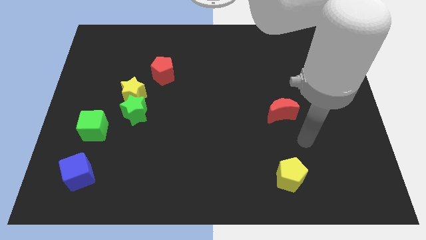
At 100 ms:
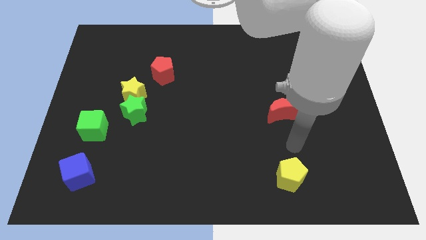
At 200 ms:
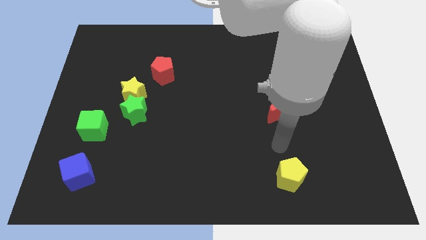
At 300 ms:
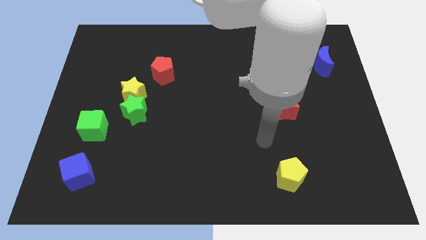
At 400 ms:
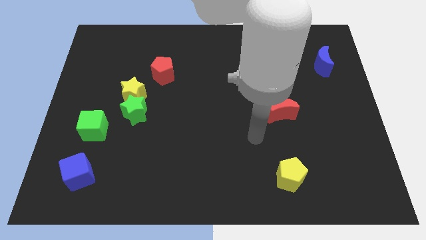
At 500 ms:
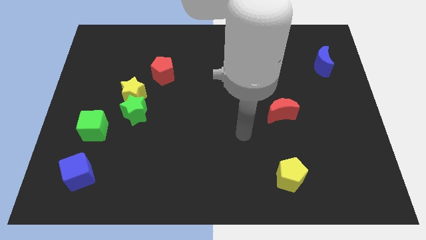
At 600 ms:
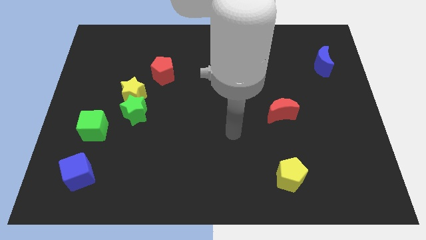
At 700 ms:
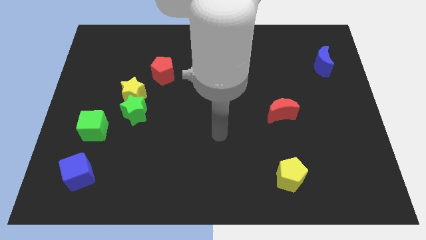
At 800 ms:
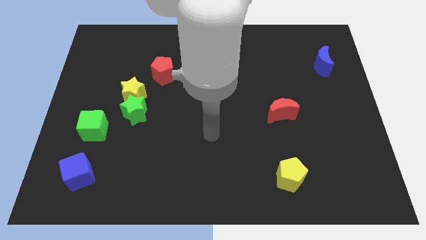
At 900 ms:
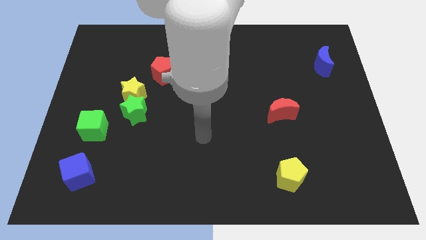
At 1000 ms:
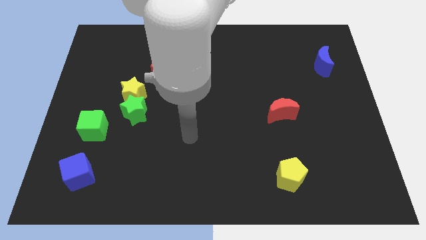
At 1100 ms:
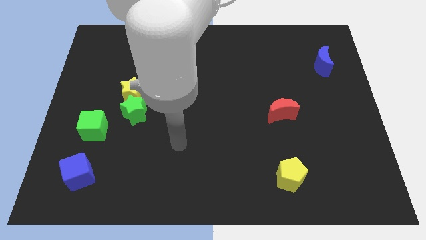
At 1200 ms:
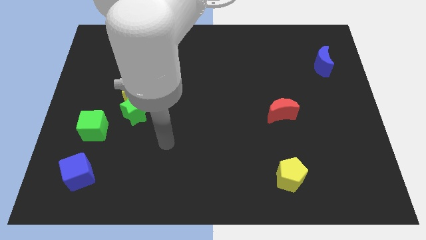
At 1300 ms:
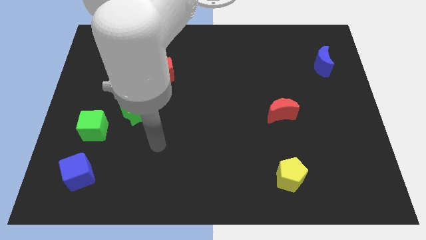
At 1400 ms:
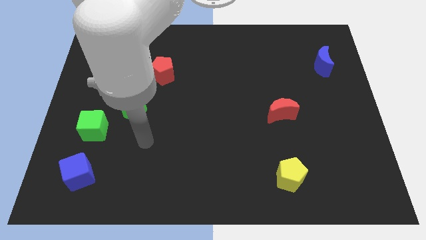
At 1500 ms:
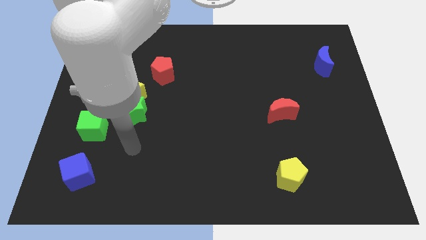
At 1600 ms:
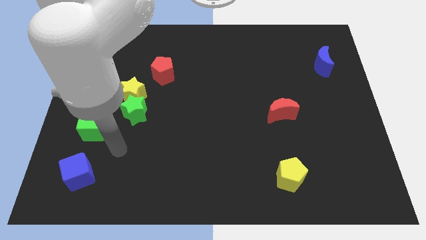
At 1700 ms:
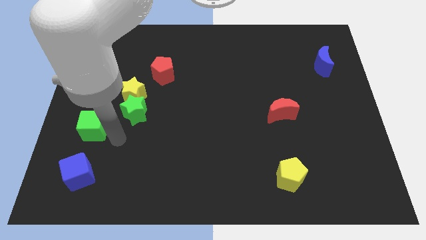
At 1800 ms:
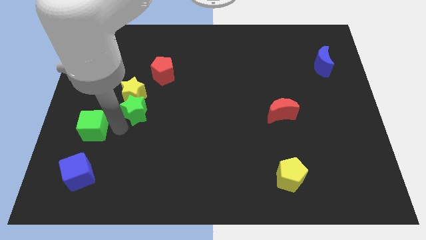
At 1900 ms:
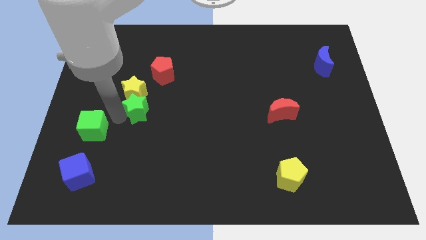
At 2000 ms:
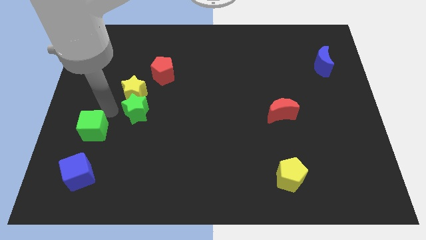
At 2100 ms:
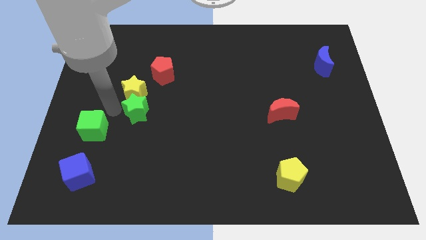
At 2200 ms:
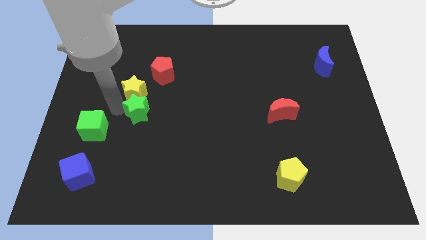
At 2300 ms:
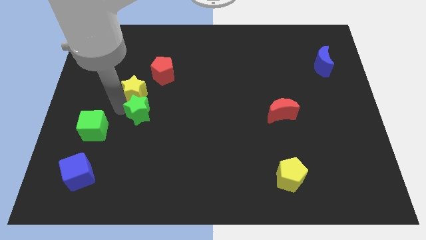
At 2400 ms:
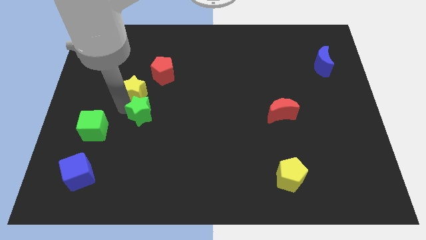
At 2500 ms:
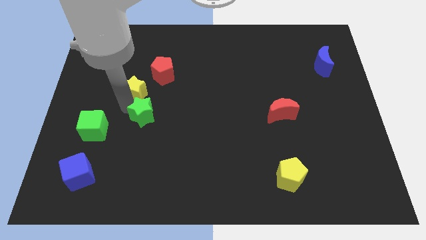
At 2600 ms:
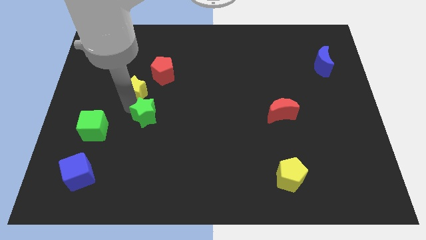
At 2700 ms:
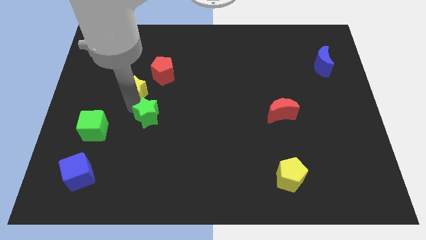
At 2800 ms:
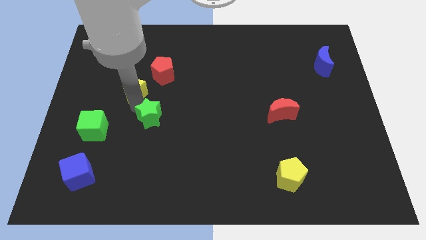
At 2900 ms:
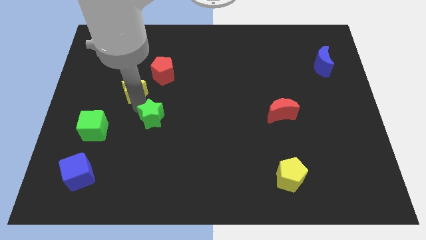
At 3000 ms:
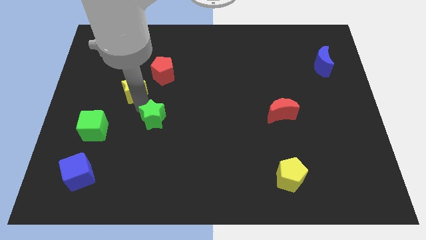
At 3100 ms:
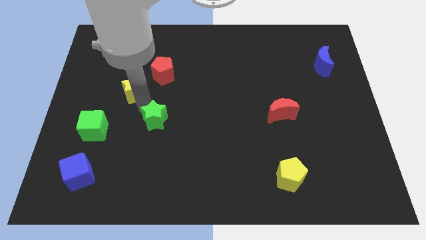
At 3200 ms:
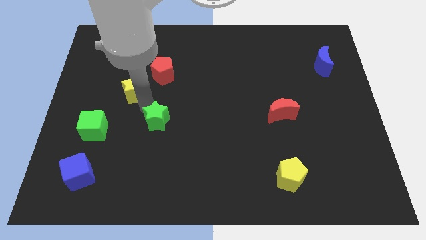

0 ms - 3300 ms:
move the green star away from the yellow star and green cube

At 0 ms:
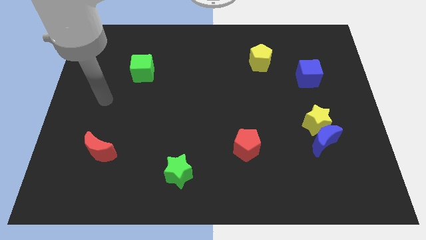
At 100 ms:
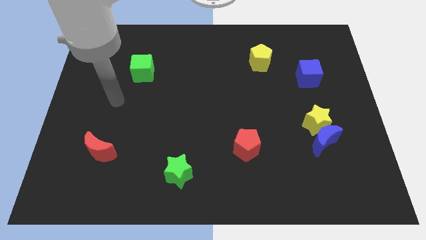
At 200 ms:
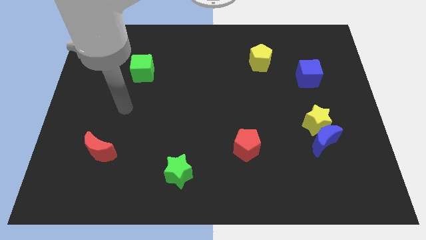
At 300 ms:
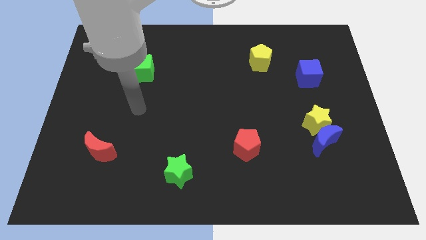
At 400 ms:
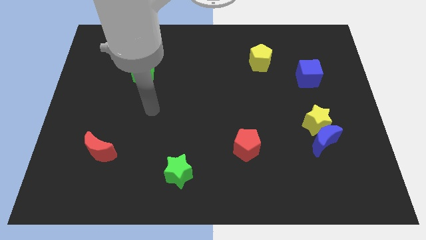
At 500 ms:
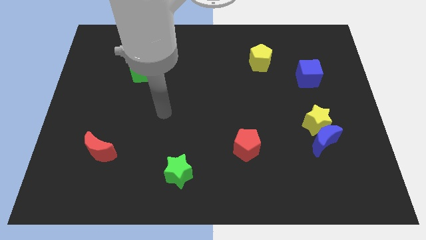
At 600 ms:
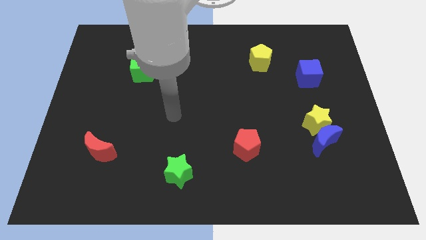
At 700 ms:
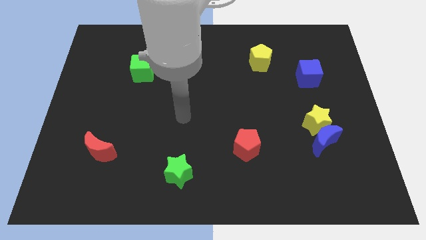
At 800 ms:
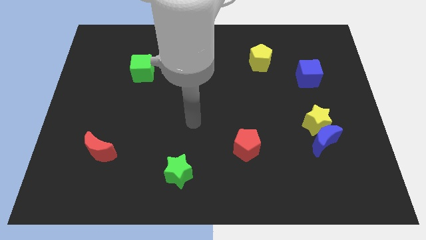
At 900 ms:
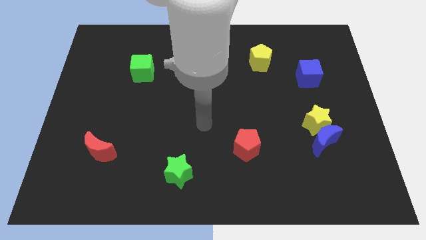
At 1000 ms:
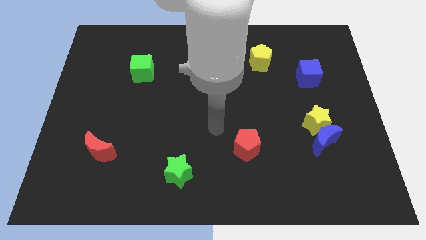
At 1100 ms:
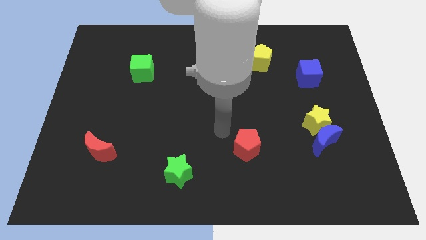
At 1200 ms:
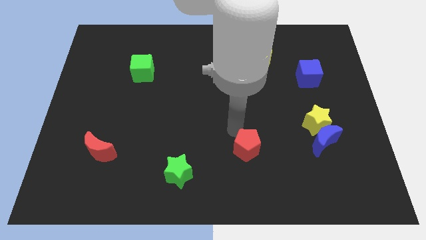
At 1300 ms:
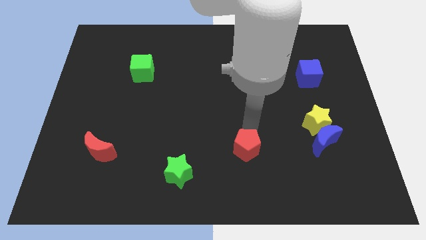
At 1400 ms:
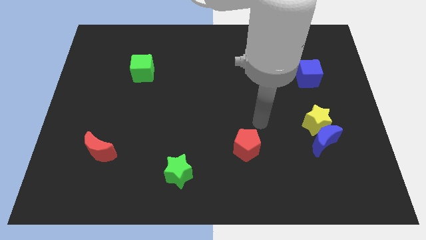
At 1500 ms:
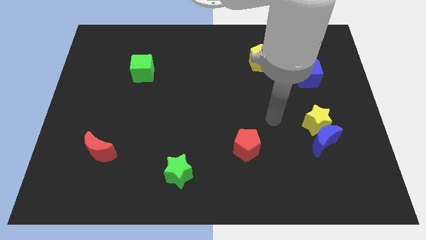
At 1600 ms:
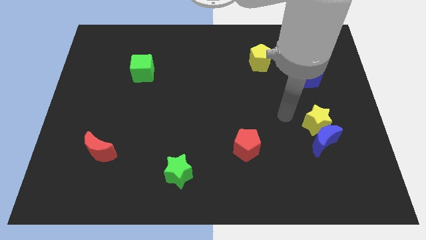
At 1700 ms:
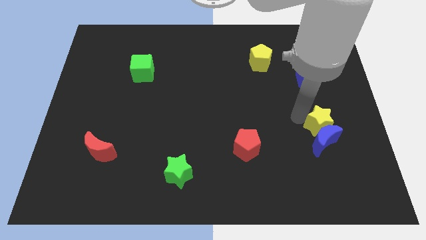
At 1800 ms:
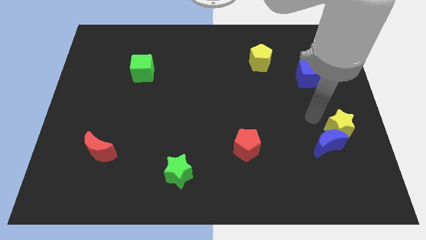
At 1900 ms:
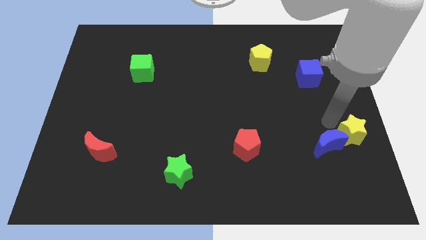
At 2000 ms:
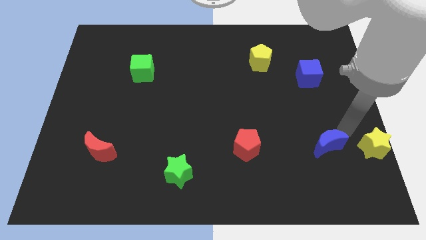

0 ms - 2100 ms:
pull the blue moon apart from the yellow star

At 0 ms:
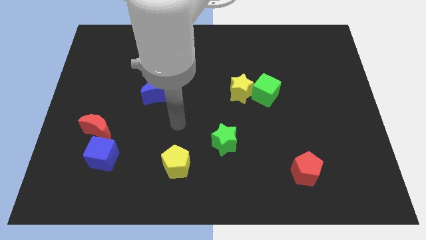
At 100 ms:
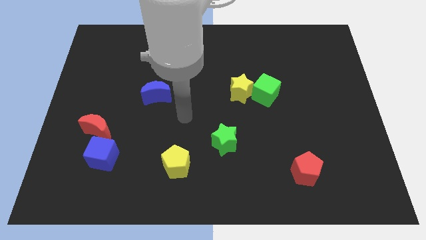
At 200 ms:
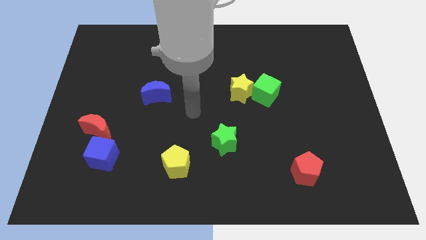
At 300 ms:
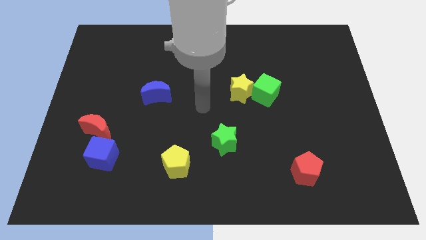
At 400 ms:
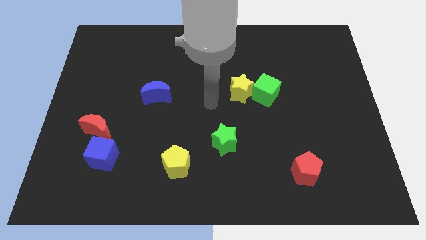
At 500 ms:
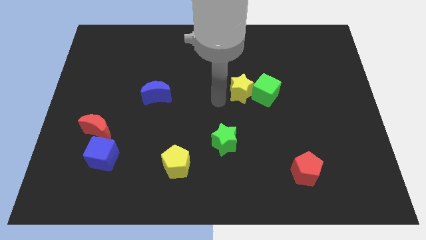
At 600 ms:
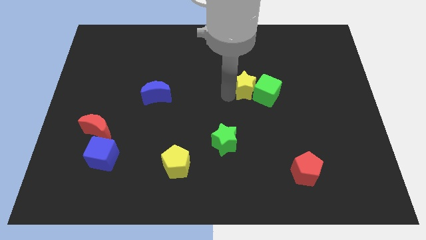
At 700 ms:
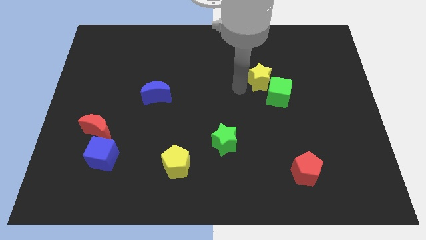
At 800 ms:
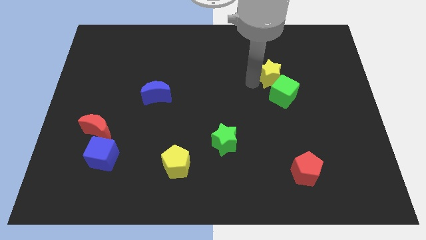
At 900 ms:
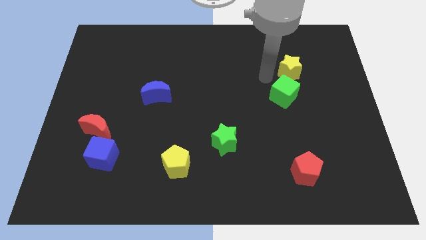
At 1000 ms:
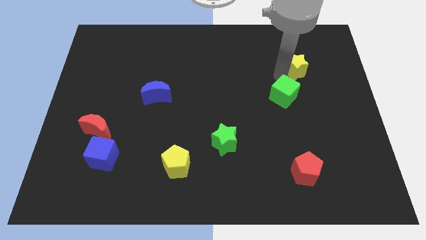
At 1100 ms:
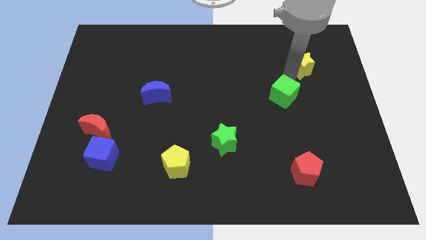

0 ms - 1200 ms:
pull the green cube apart from the yellow star

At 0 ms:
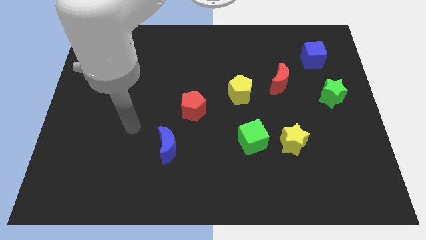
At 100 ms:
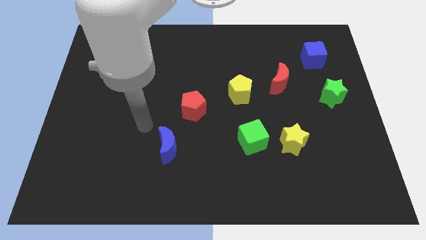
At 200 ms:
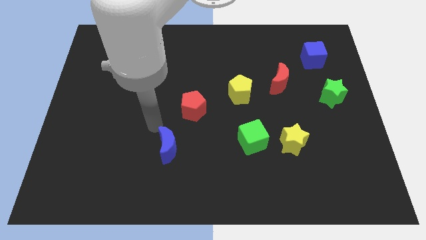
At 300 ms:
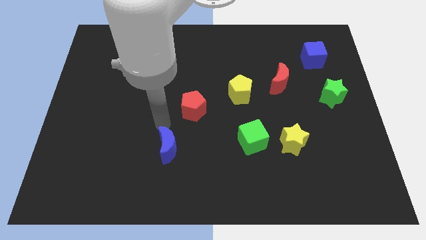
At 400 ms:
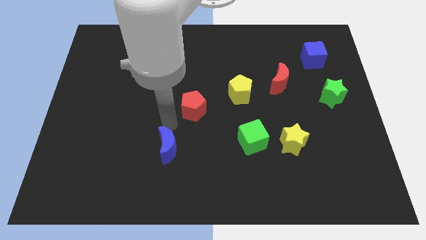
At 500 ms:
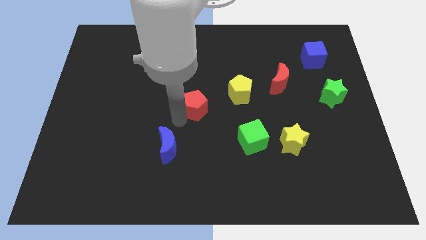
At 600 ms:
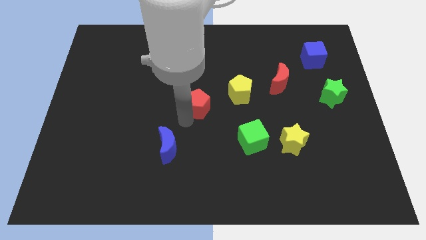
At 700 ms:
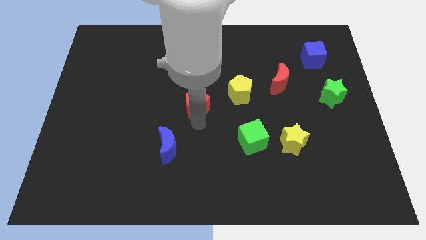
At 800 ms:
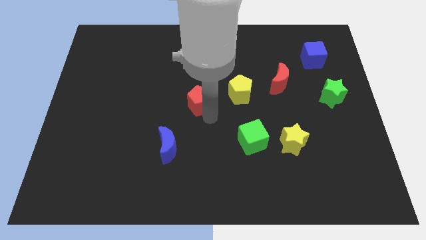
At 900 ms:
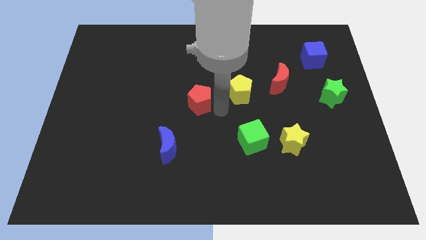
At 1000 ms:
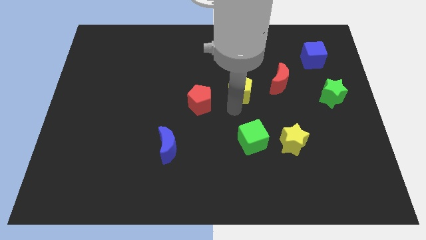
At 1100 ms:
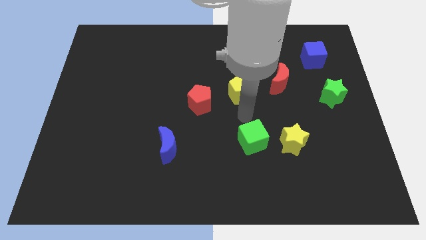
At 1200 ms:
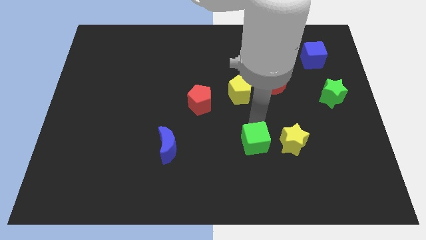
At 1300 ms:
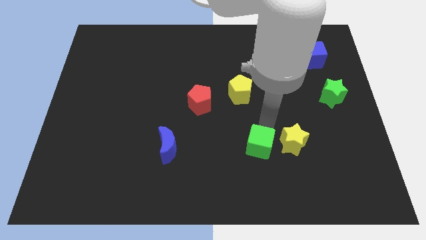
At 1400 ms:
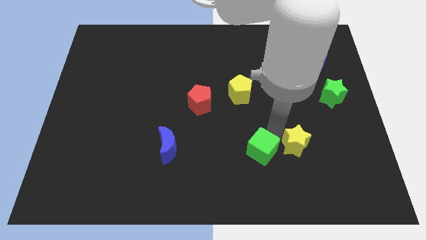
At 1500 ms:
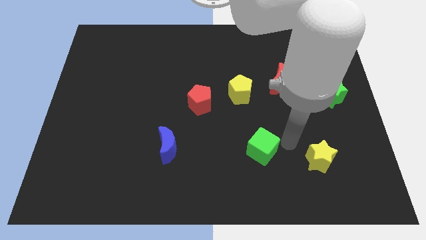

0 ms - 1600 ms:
separate the green cube from the yellow star

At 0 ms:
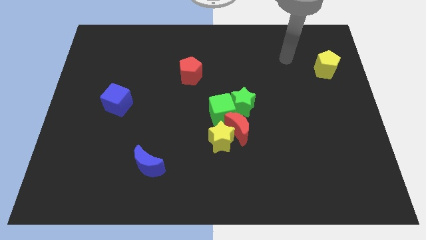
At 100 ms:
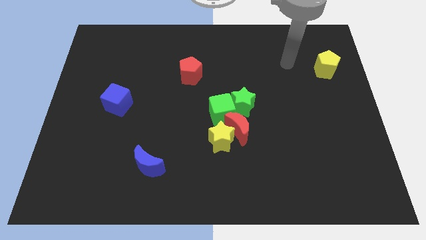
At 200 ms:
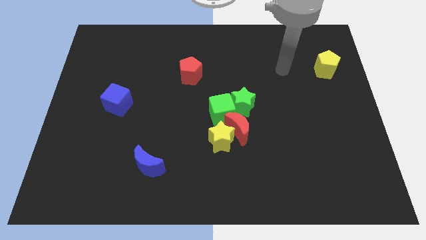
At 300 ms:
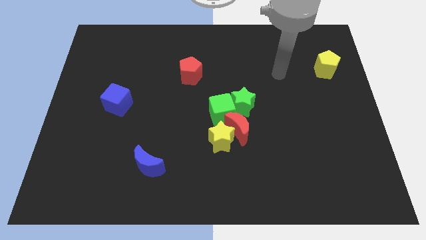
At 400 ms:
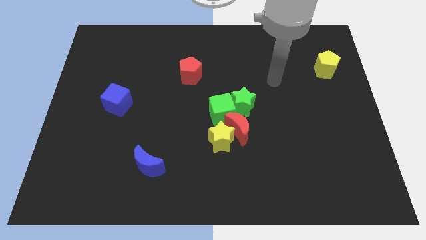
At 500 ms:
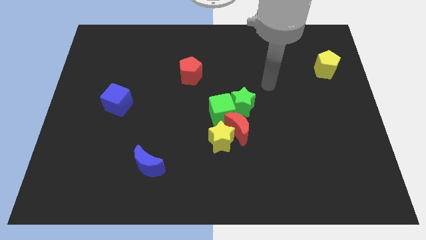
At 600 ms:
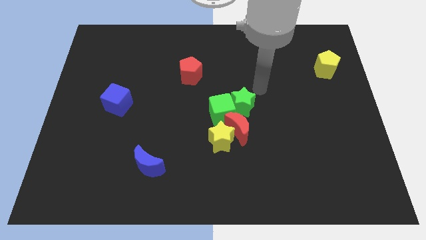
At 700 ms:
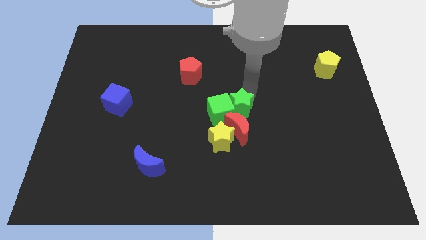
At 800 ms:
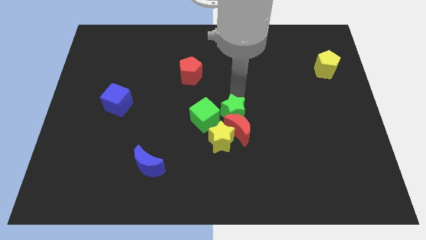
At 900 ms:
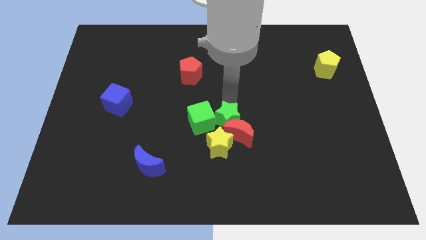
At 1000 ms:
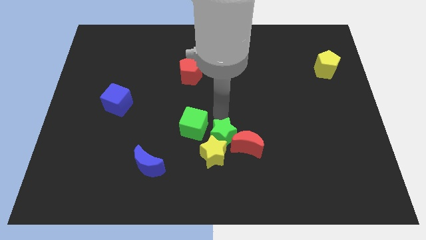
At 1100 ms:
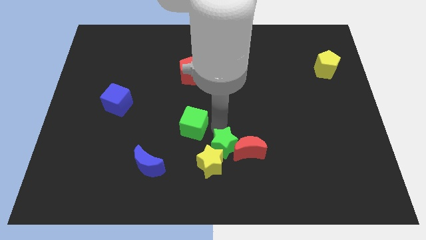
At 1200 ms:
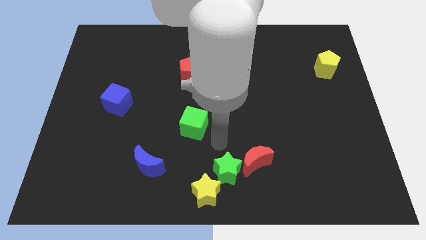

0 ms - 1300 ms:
pull the red moon apart from the clump
